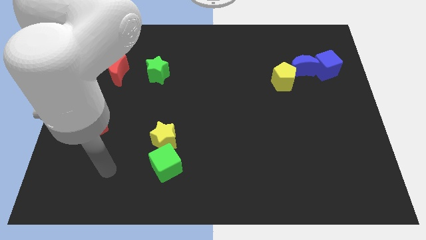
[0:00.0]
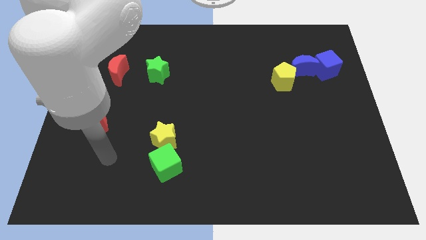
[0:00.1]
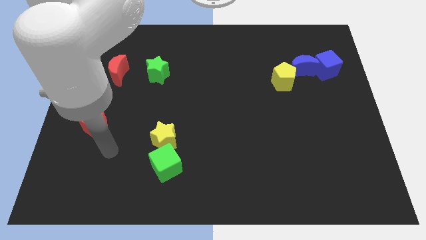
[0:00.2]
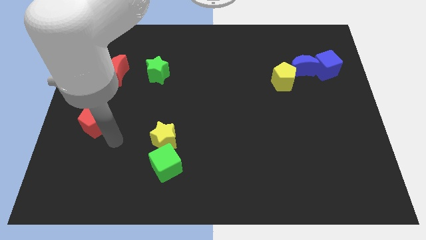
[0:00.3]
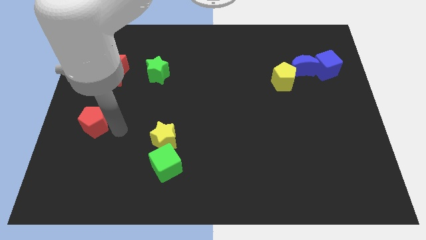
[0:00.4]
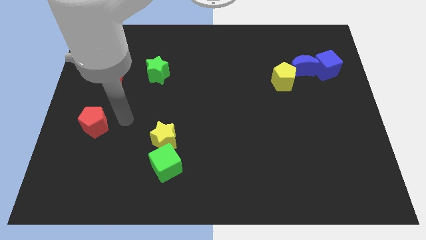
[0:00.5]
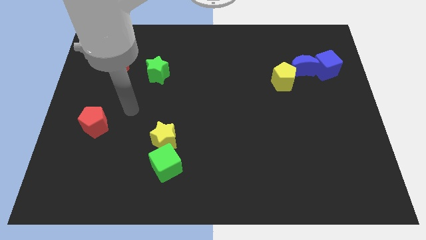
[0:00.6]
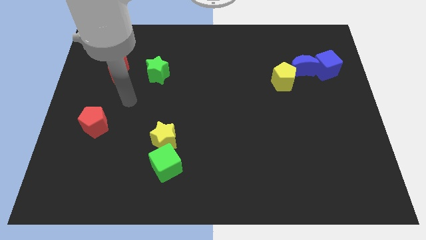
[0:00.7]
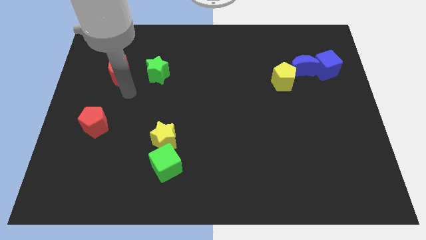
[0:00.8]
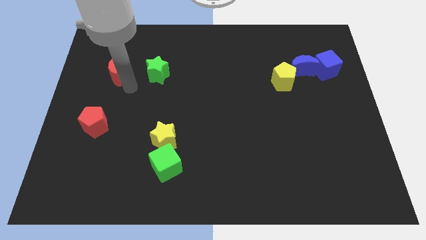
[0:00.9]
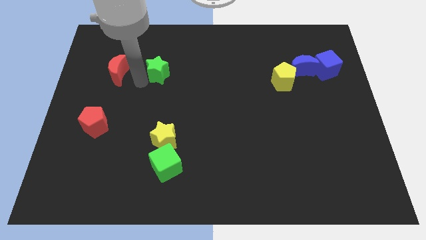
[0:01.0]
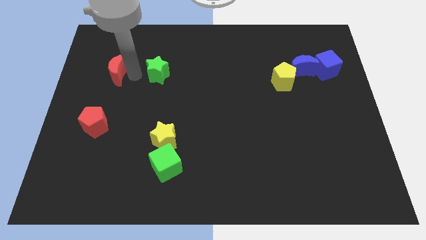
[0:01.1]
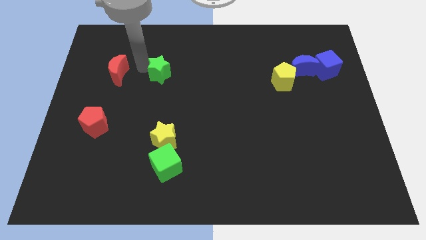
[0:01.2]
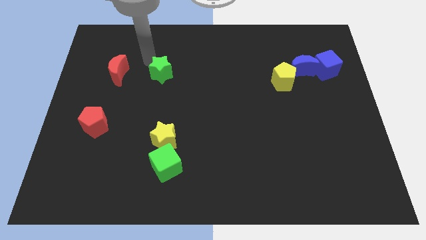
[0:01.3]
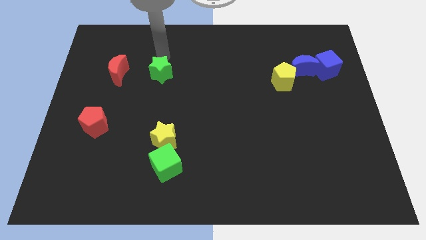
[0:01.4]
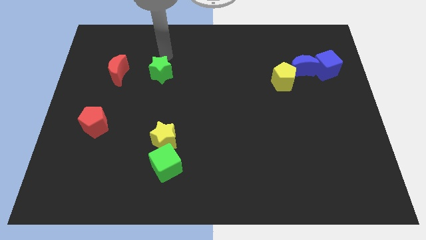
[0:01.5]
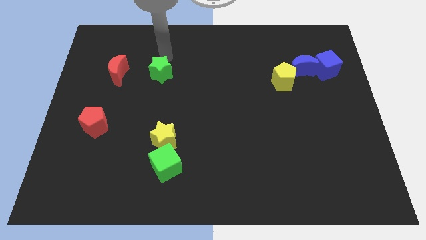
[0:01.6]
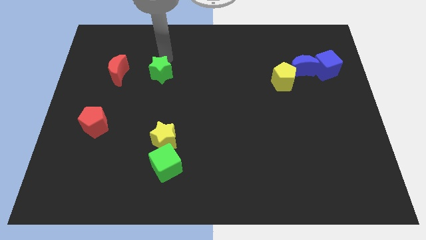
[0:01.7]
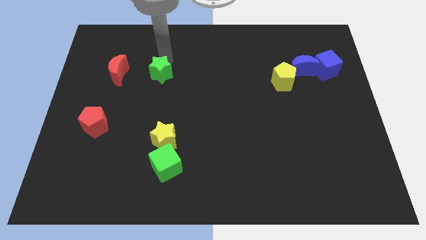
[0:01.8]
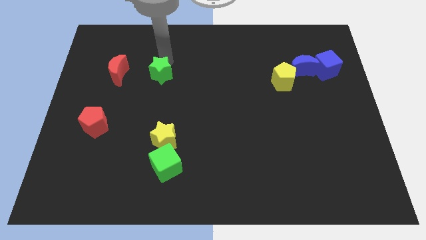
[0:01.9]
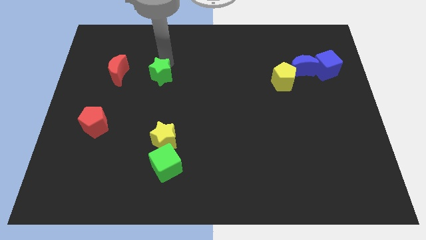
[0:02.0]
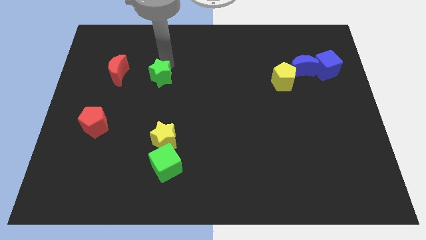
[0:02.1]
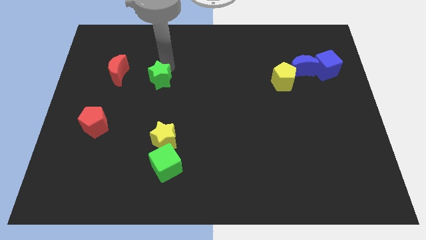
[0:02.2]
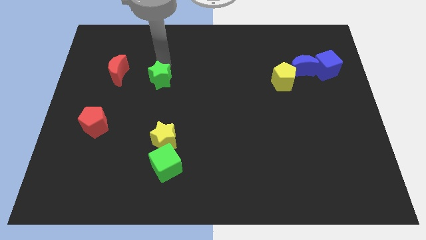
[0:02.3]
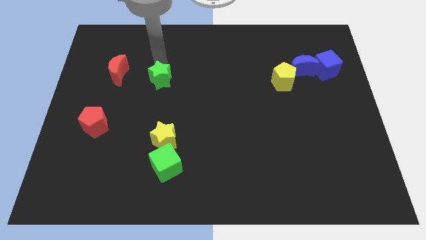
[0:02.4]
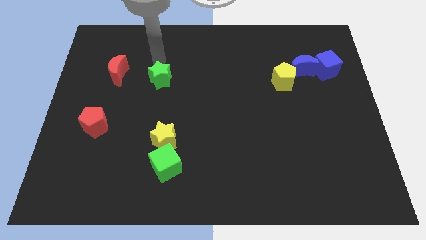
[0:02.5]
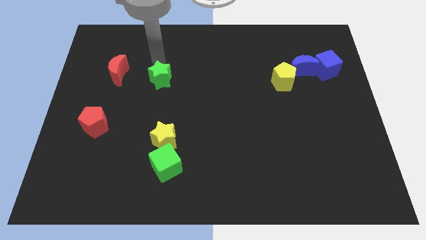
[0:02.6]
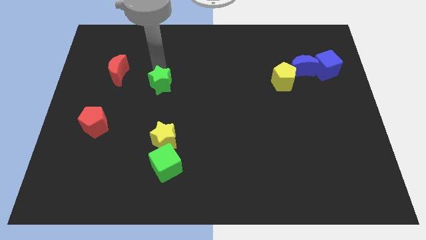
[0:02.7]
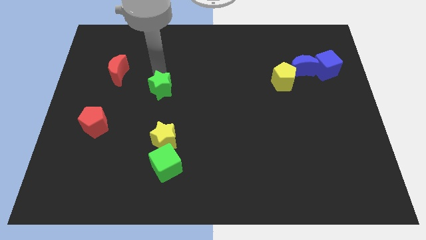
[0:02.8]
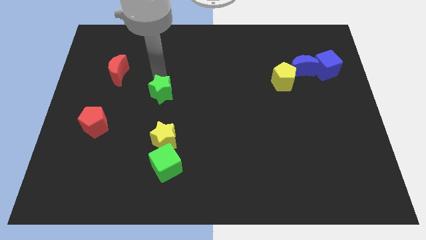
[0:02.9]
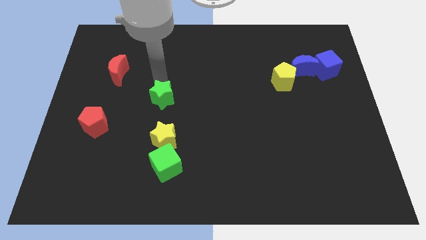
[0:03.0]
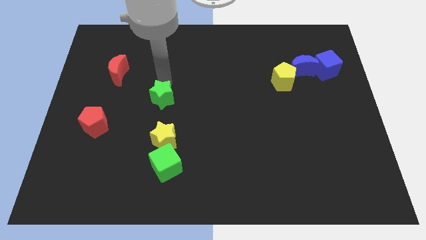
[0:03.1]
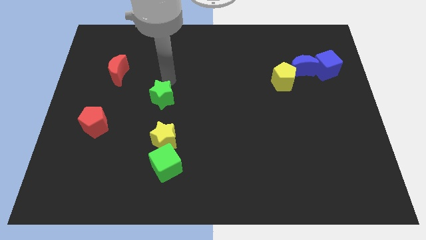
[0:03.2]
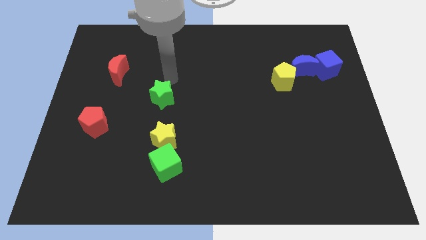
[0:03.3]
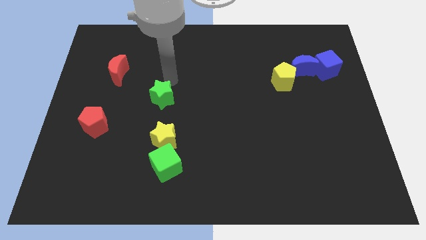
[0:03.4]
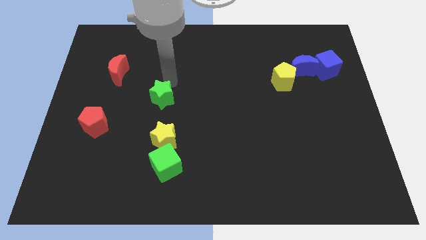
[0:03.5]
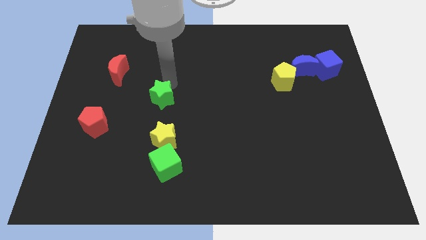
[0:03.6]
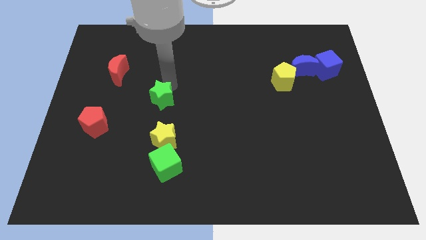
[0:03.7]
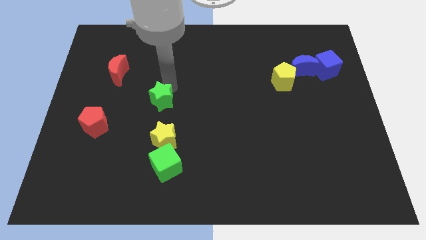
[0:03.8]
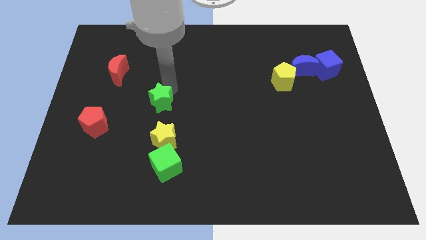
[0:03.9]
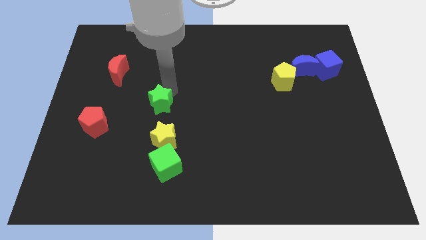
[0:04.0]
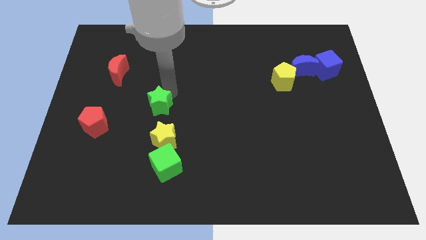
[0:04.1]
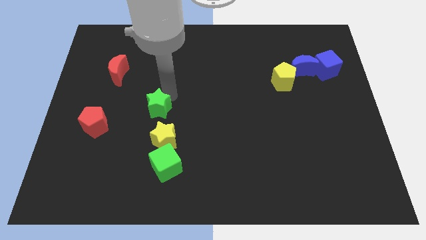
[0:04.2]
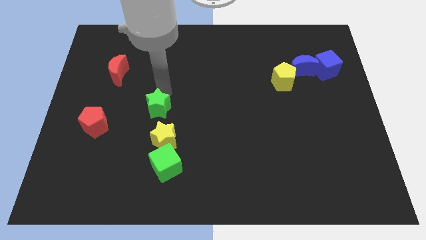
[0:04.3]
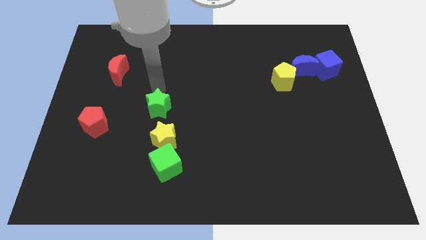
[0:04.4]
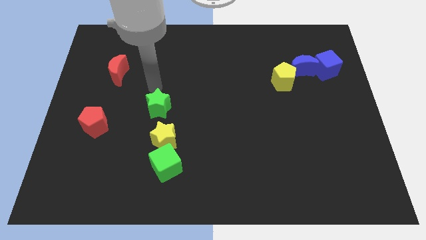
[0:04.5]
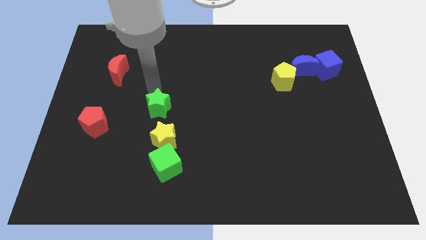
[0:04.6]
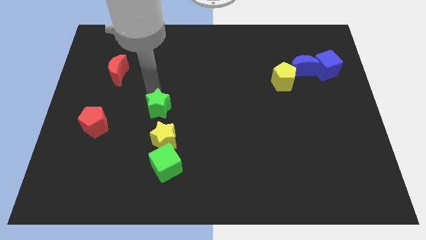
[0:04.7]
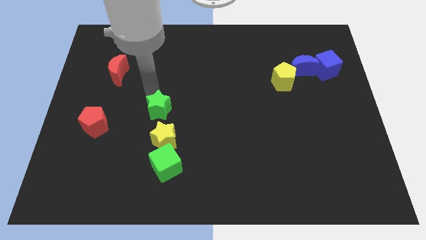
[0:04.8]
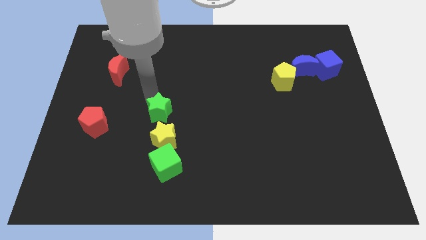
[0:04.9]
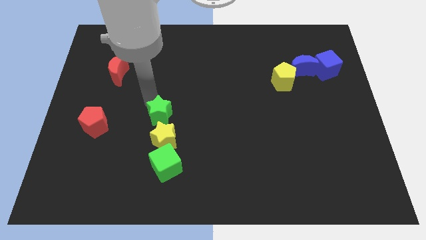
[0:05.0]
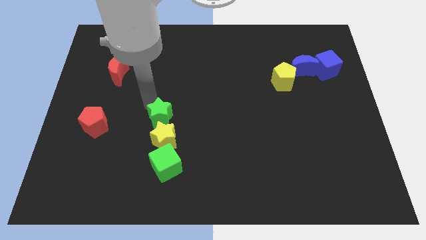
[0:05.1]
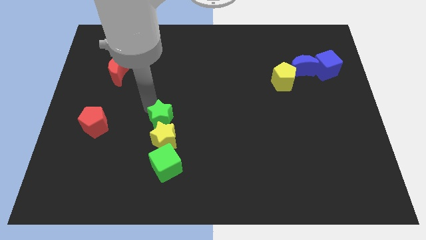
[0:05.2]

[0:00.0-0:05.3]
move the green star close to the yellow star

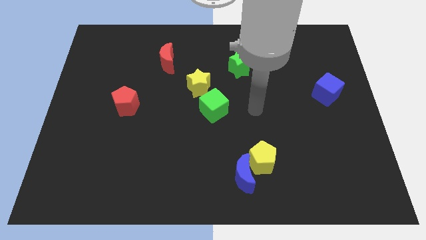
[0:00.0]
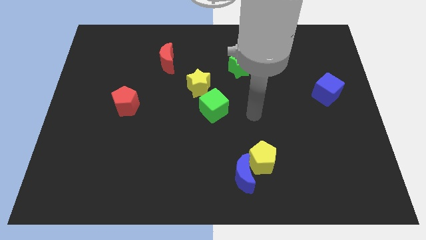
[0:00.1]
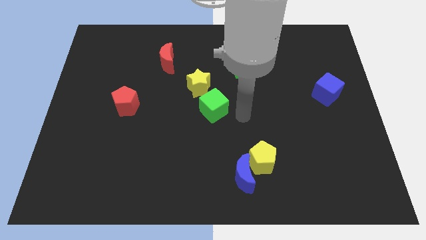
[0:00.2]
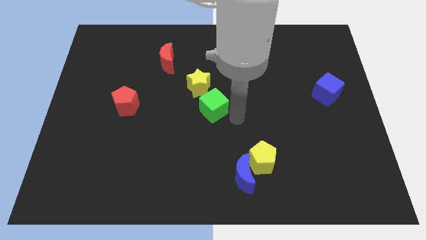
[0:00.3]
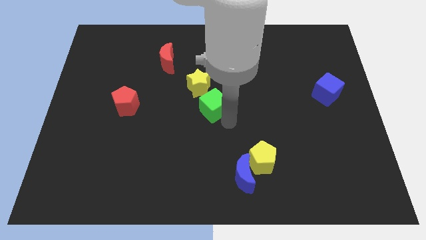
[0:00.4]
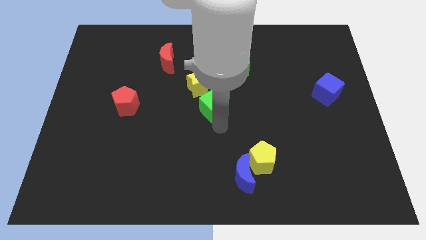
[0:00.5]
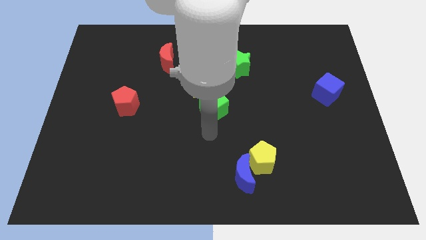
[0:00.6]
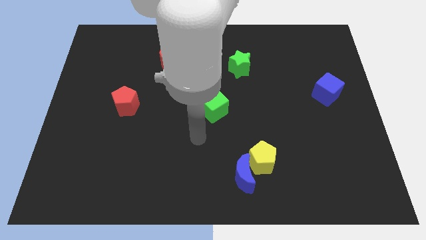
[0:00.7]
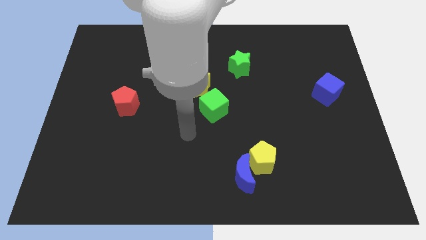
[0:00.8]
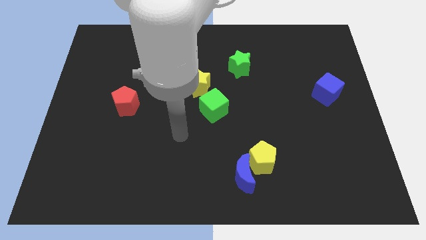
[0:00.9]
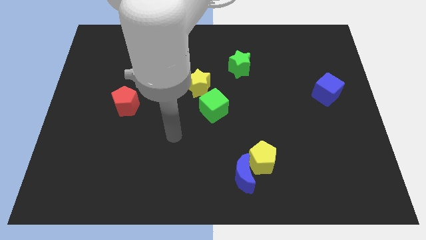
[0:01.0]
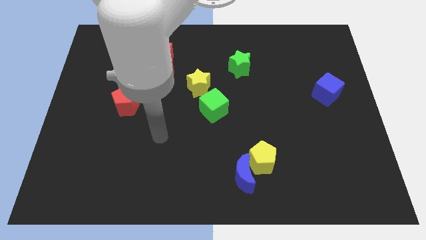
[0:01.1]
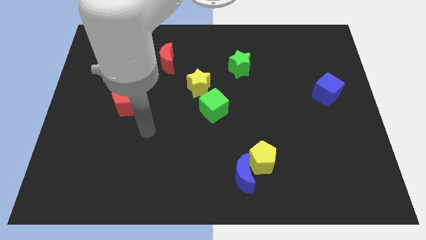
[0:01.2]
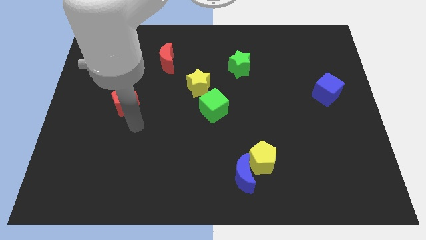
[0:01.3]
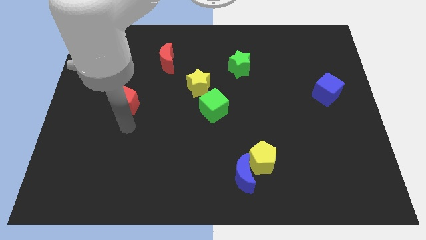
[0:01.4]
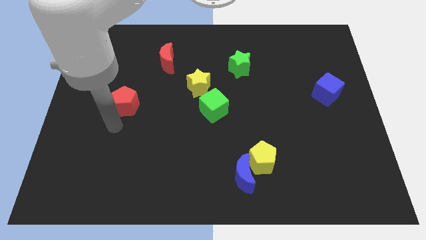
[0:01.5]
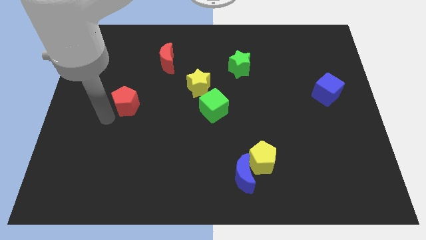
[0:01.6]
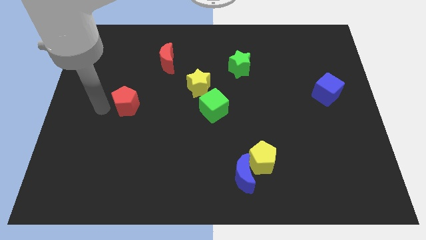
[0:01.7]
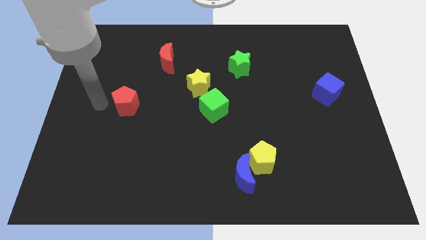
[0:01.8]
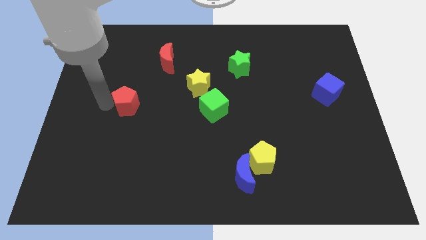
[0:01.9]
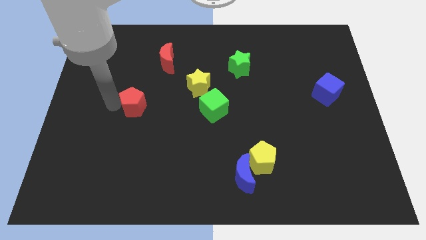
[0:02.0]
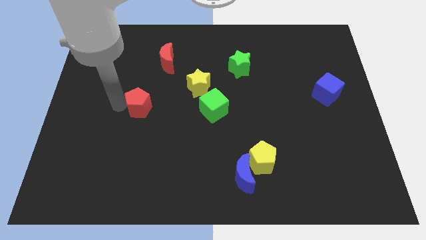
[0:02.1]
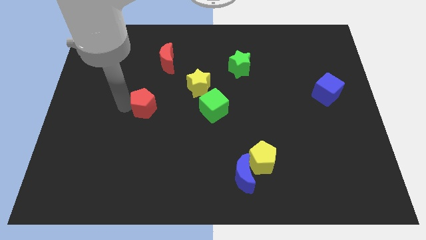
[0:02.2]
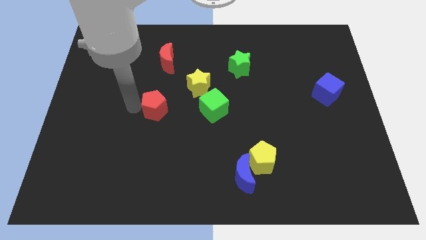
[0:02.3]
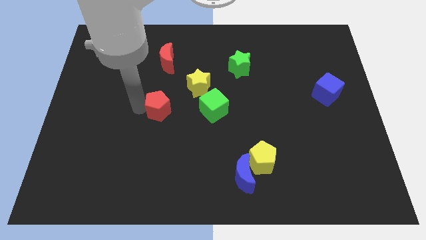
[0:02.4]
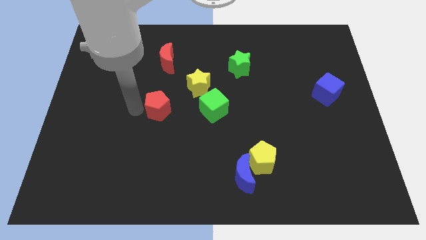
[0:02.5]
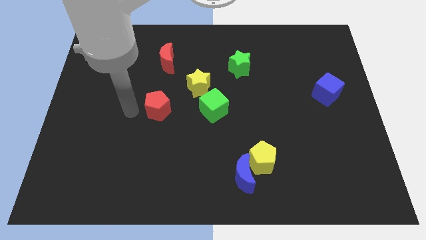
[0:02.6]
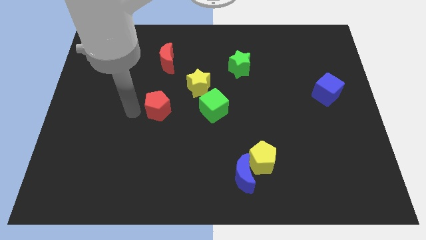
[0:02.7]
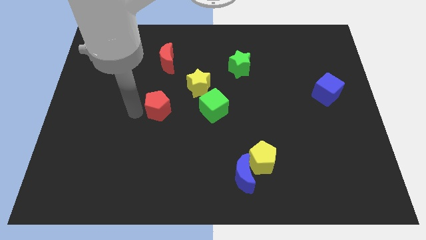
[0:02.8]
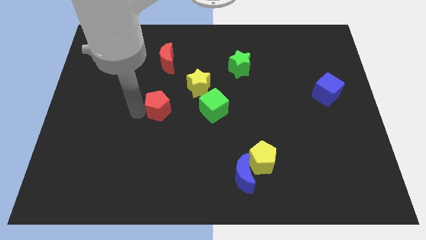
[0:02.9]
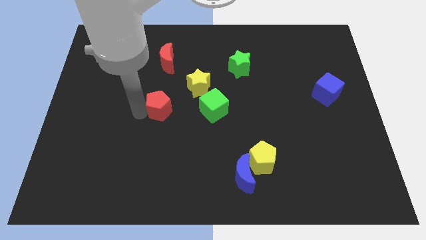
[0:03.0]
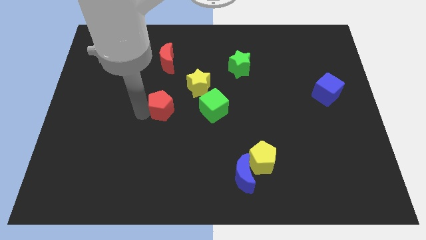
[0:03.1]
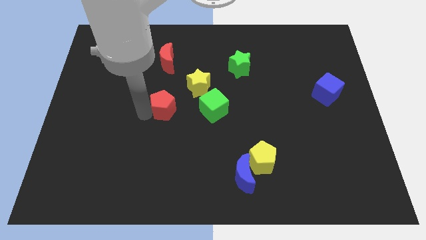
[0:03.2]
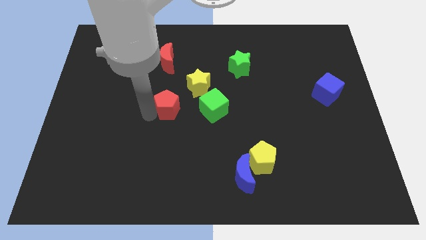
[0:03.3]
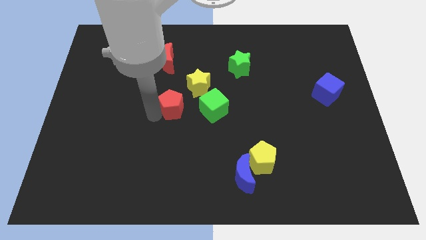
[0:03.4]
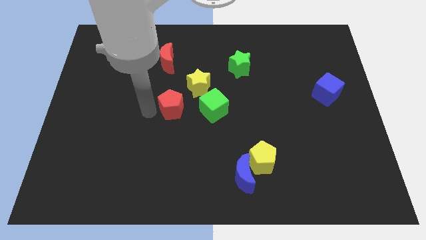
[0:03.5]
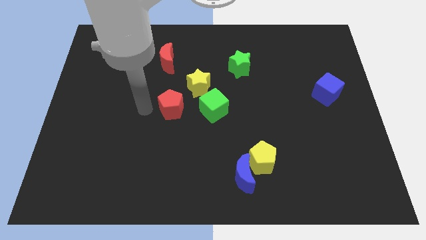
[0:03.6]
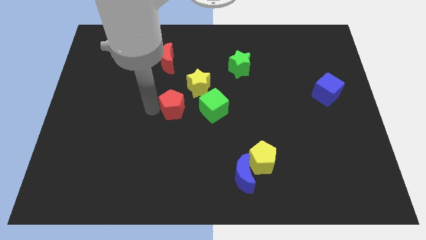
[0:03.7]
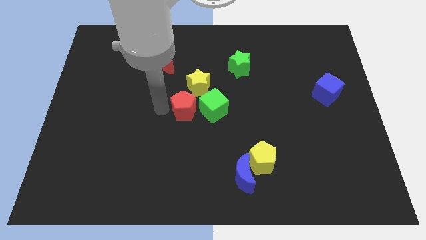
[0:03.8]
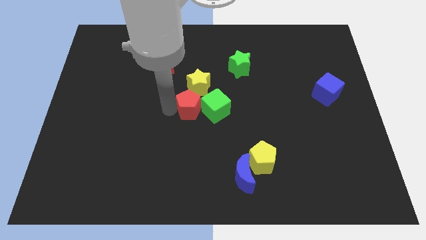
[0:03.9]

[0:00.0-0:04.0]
push the red pentagon next to the green cube
